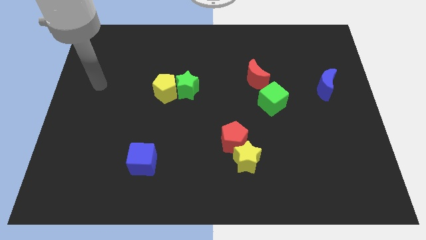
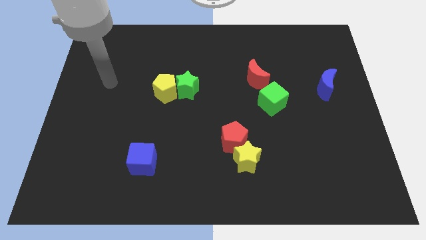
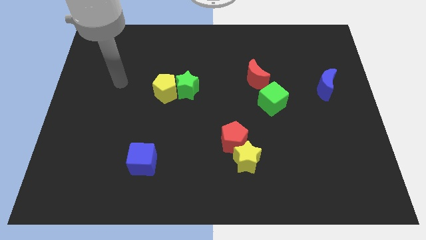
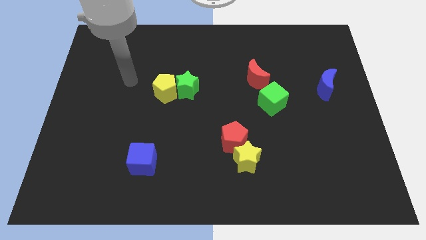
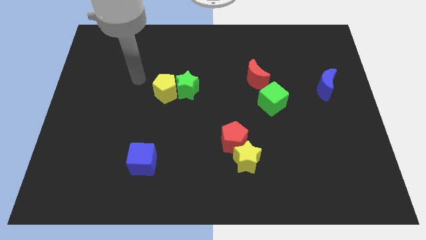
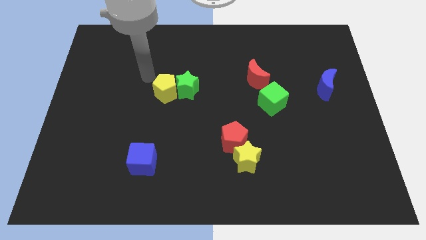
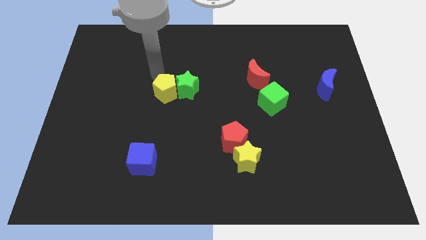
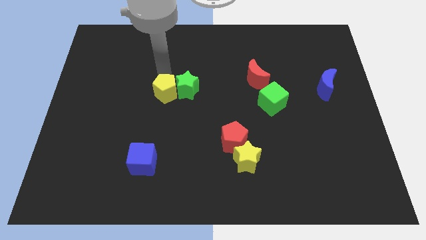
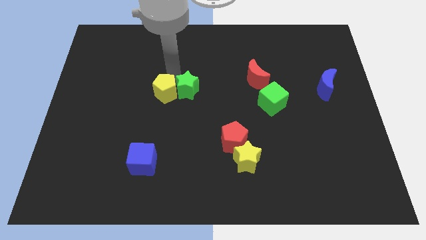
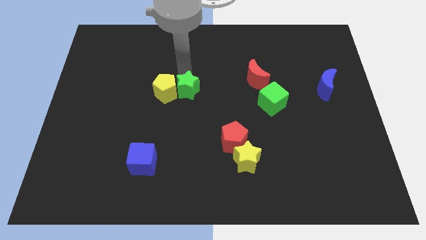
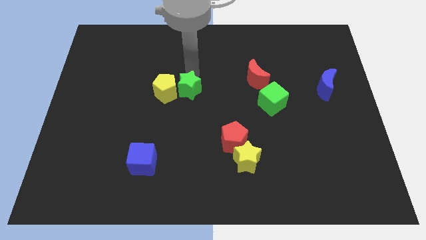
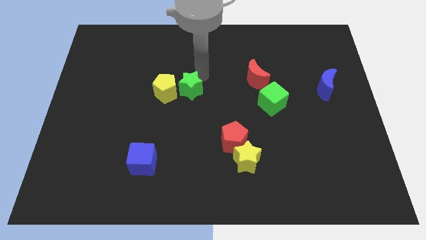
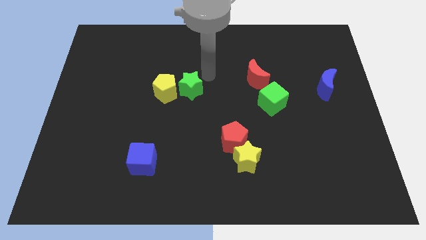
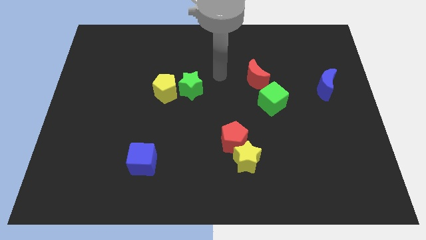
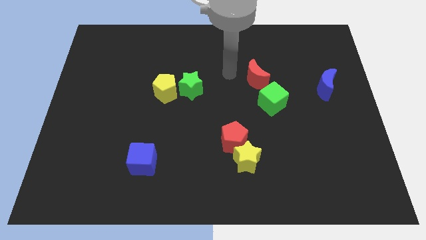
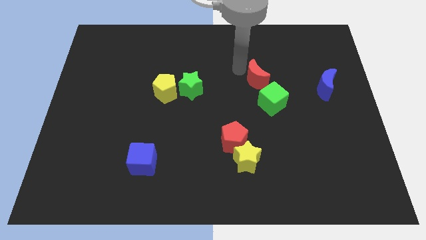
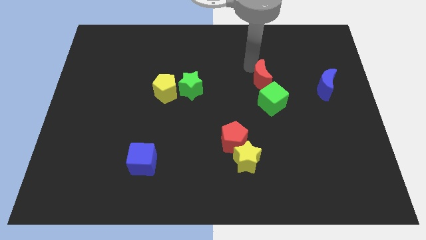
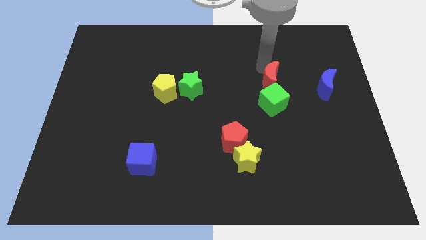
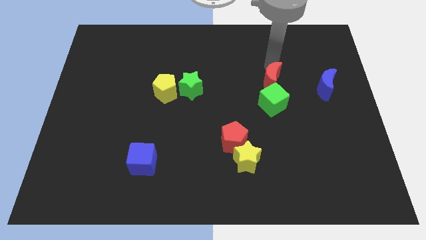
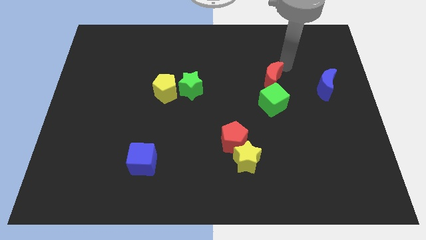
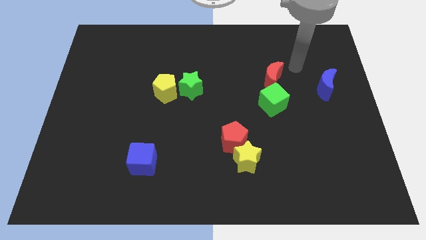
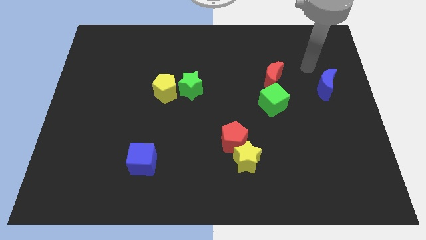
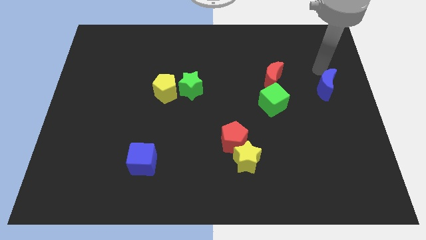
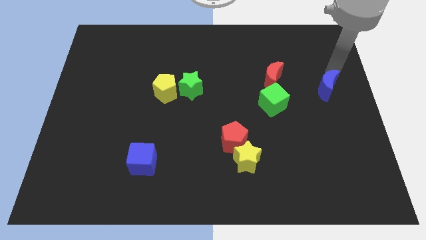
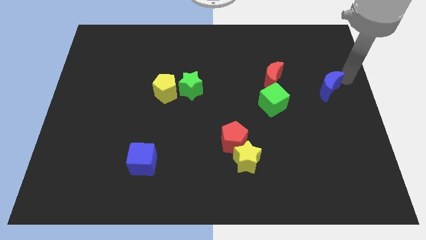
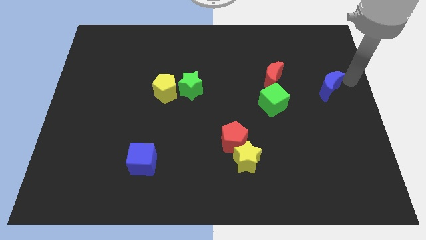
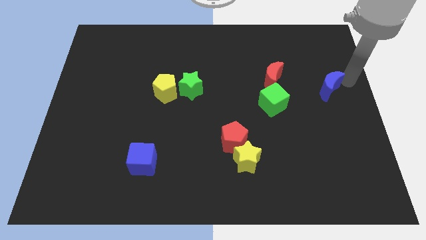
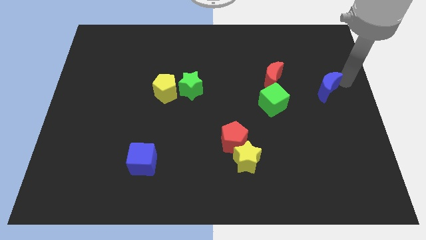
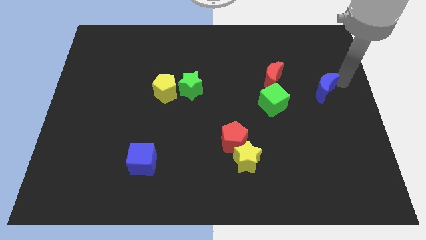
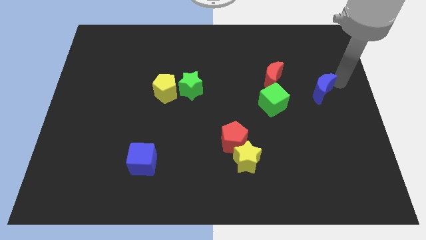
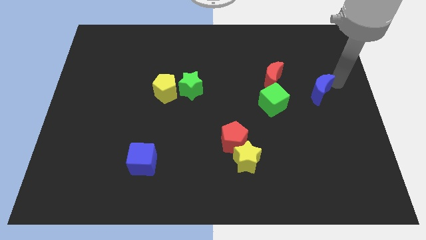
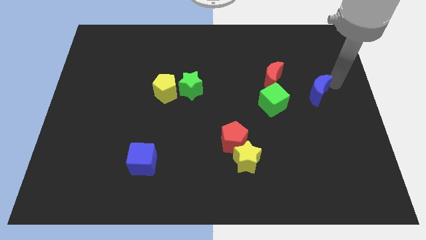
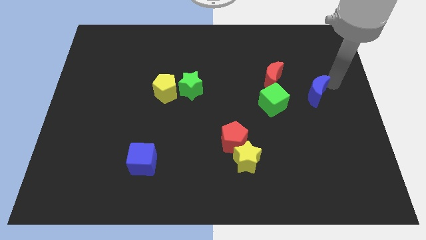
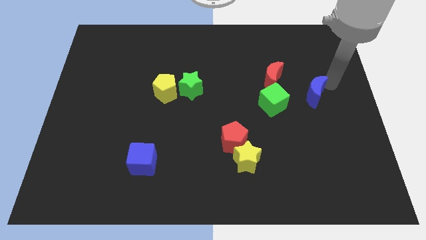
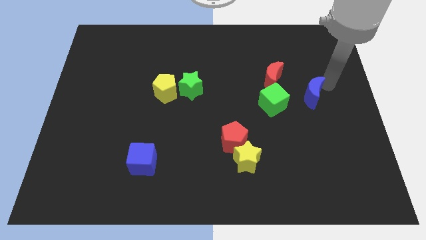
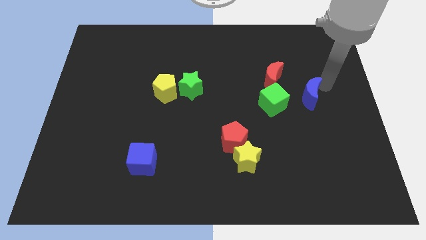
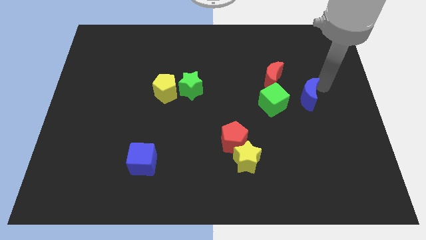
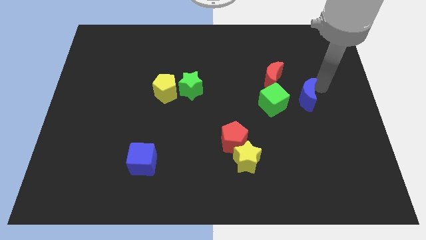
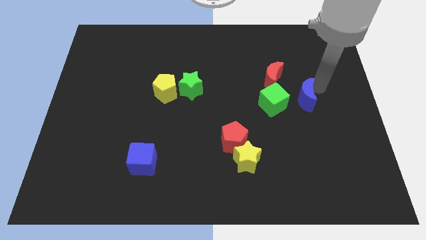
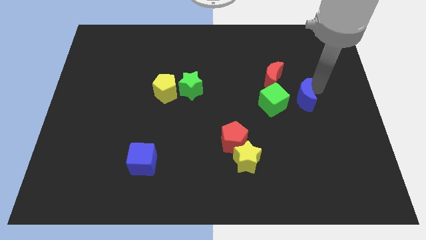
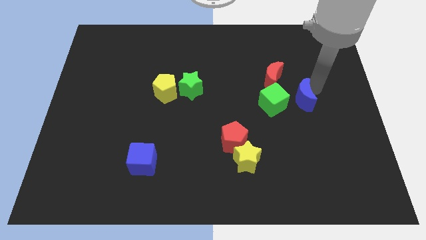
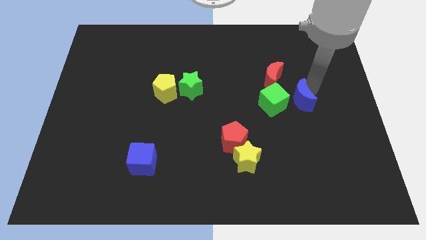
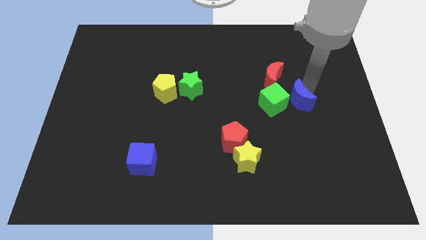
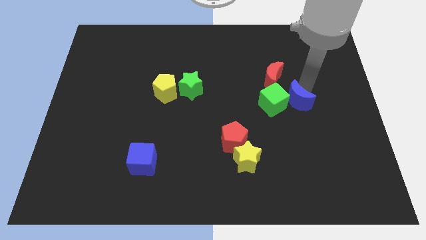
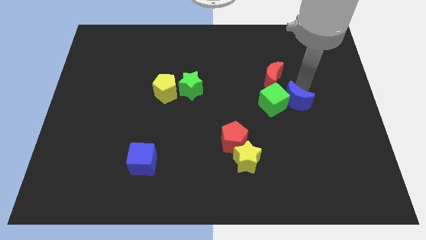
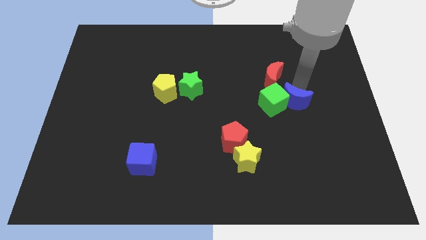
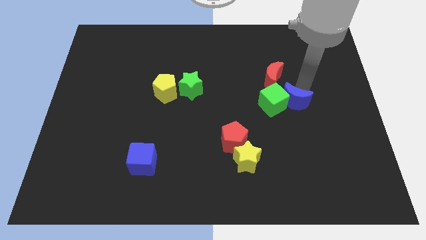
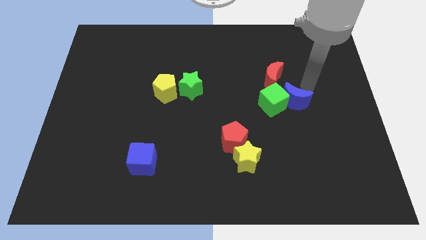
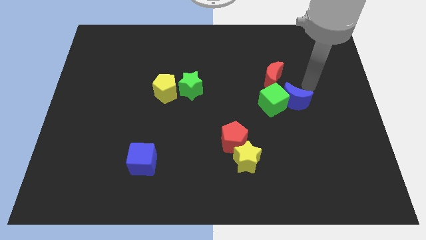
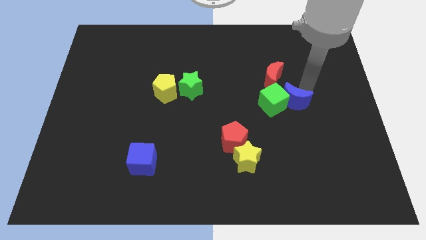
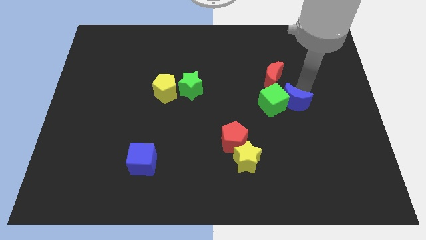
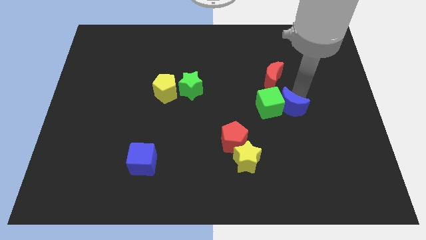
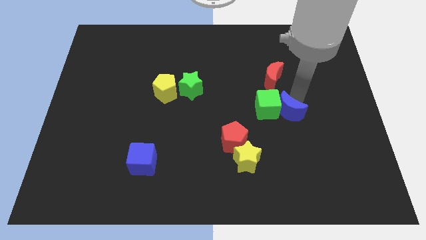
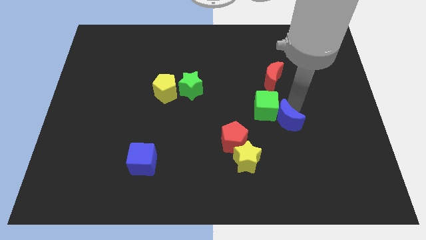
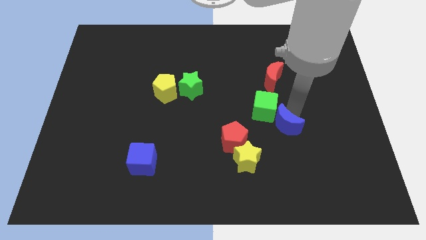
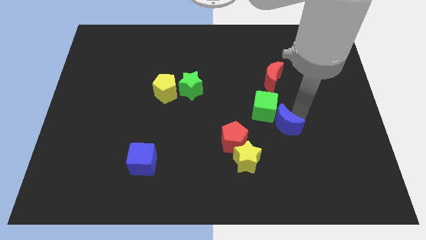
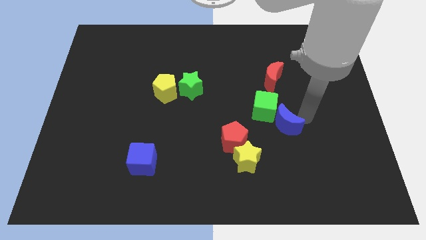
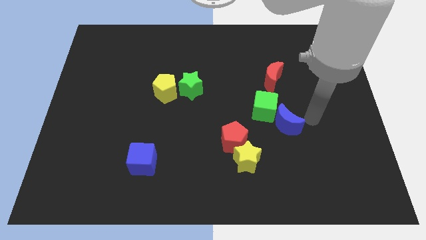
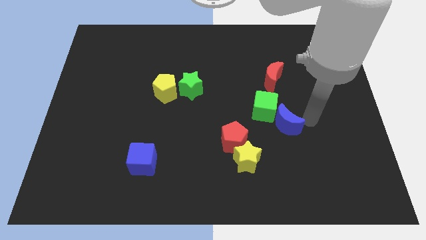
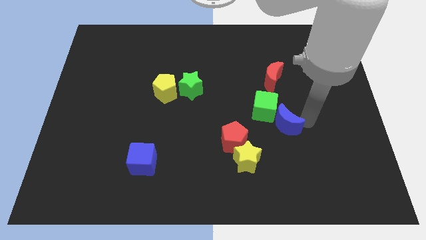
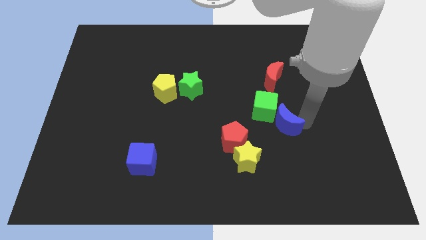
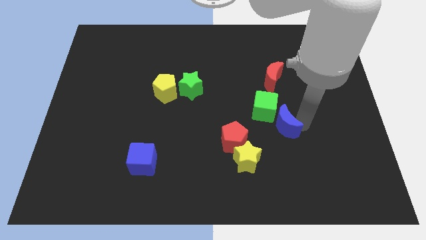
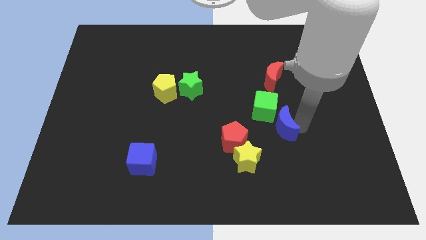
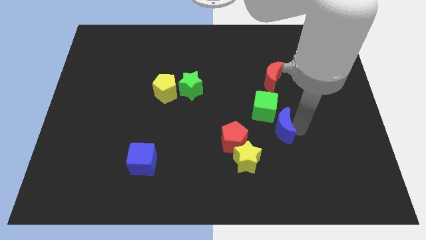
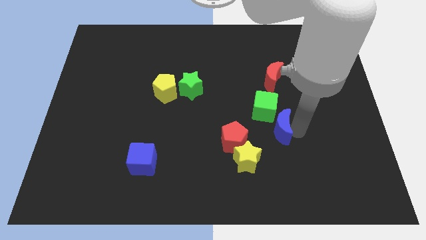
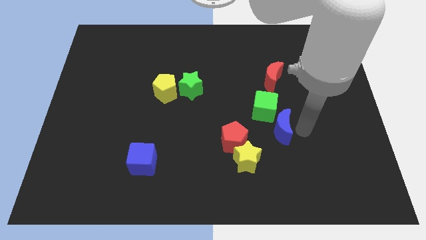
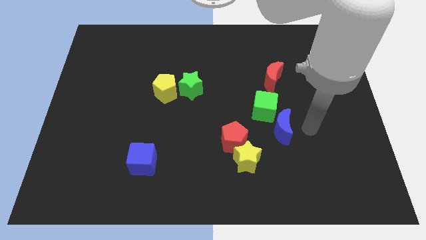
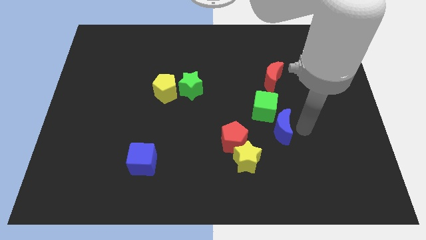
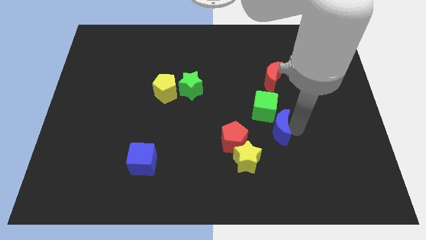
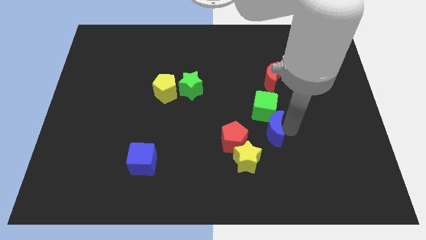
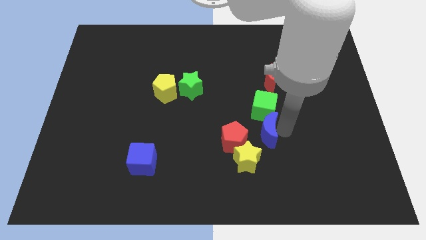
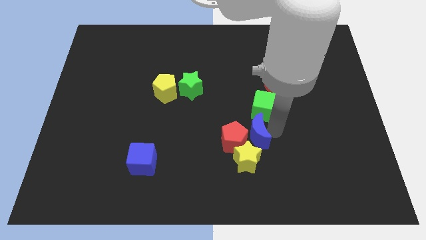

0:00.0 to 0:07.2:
move the blue moon close to the red pentagon
